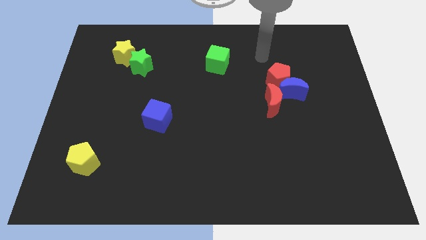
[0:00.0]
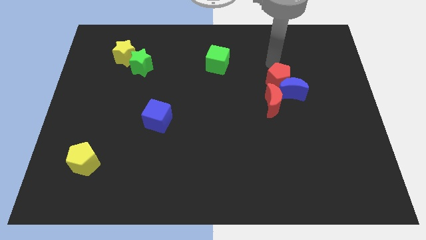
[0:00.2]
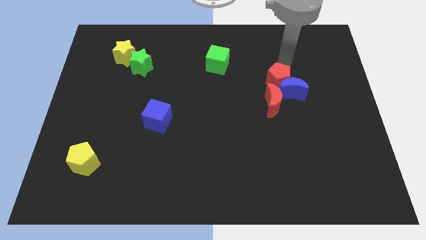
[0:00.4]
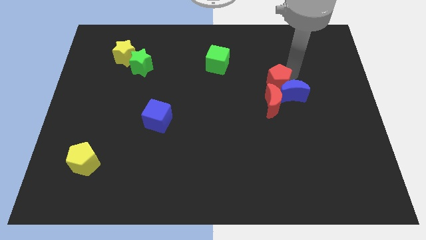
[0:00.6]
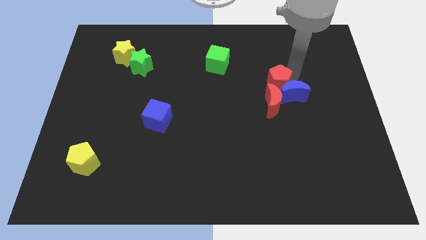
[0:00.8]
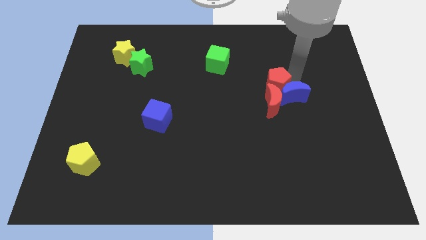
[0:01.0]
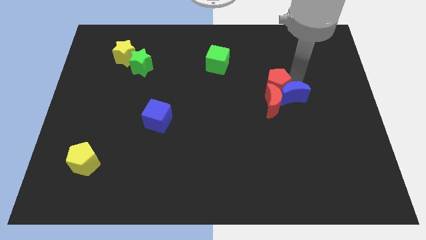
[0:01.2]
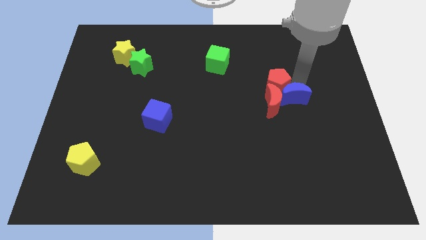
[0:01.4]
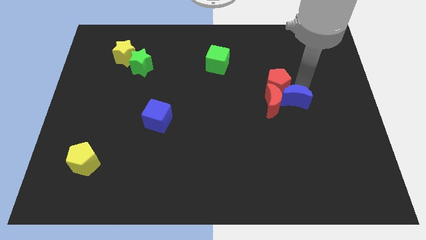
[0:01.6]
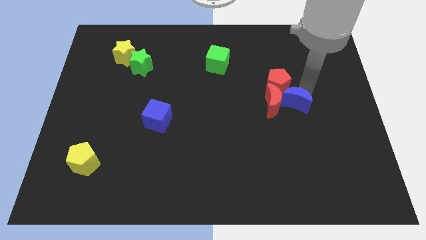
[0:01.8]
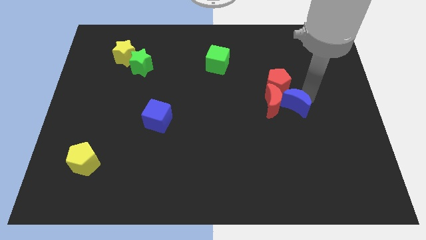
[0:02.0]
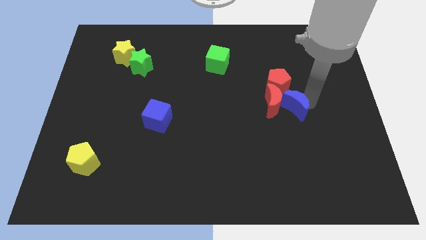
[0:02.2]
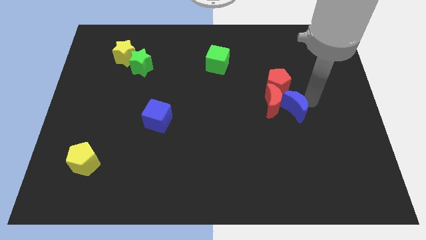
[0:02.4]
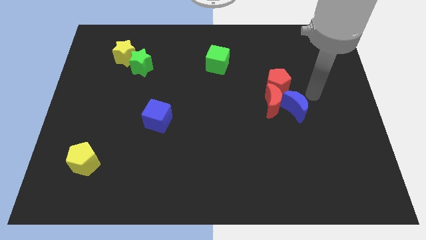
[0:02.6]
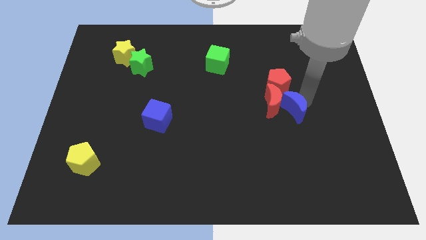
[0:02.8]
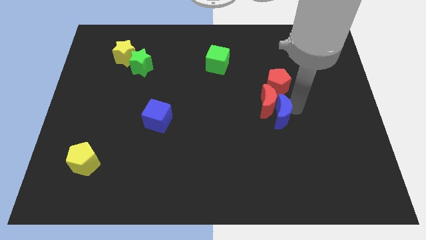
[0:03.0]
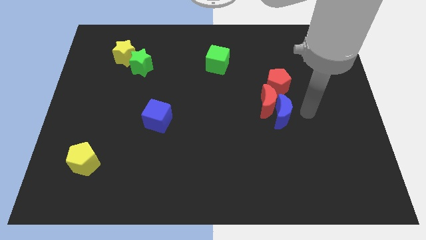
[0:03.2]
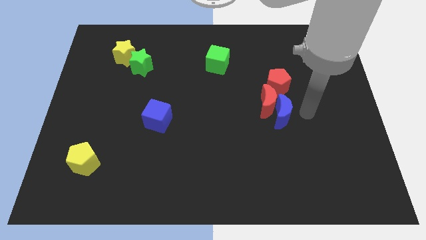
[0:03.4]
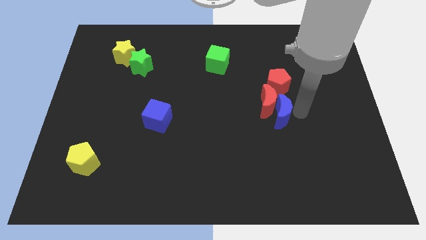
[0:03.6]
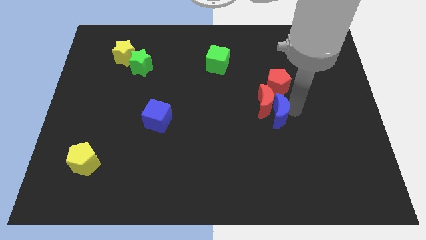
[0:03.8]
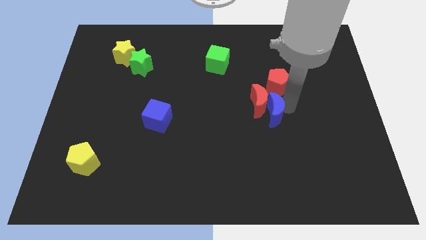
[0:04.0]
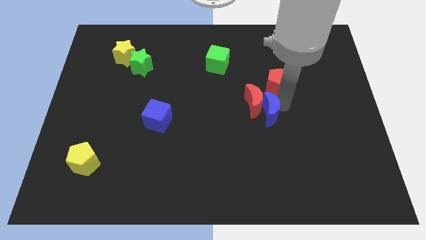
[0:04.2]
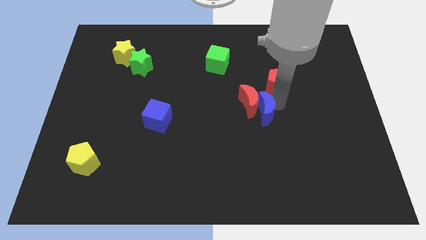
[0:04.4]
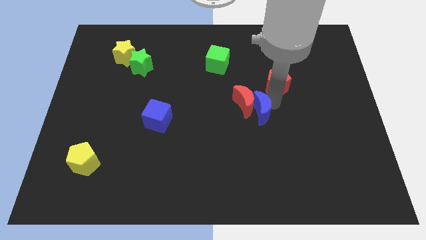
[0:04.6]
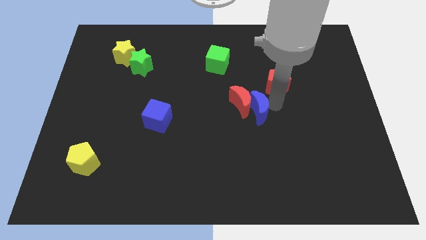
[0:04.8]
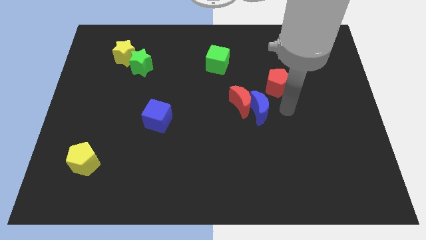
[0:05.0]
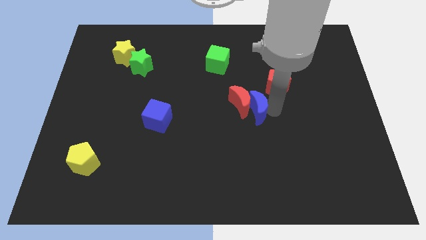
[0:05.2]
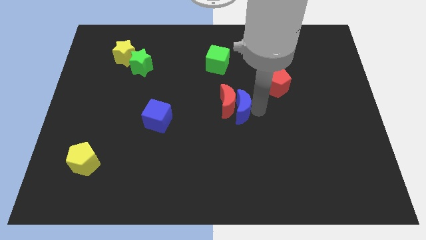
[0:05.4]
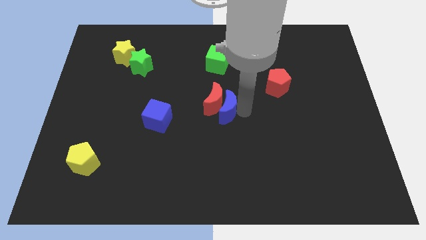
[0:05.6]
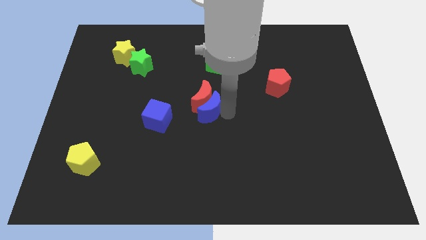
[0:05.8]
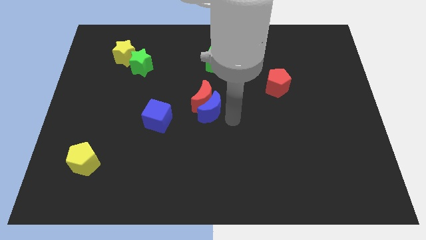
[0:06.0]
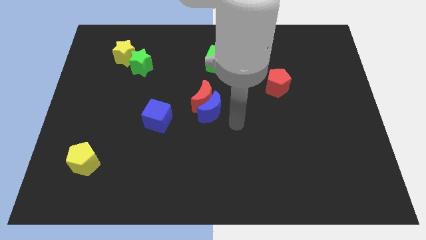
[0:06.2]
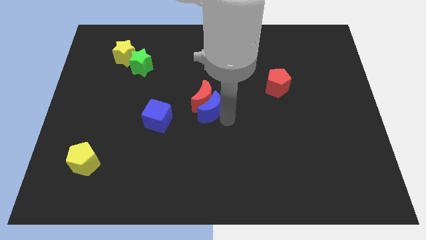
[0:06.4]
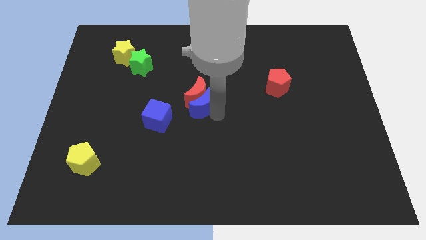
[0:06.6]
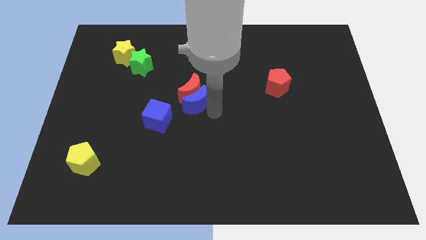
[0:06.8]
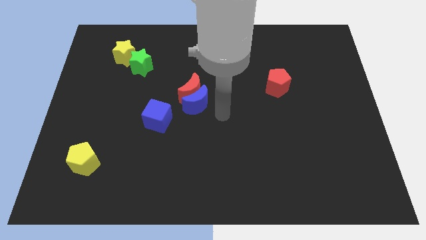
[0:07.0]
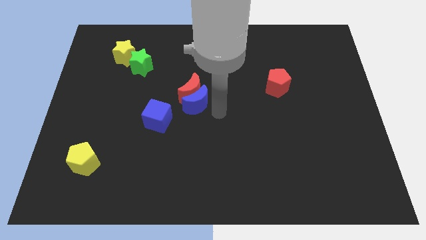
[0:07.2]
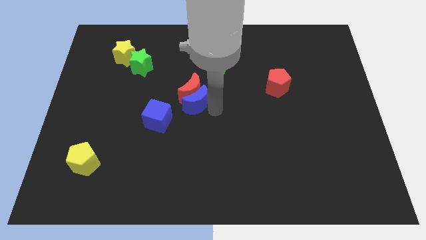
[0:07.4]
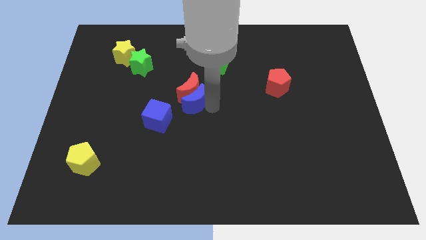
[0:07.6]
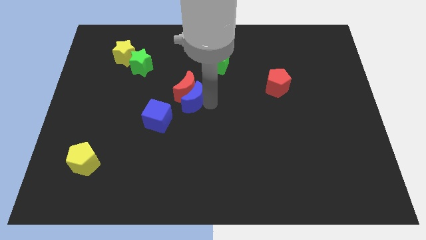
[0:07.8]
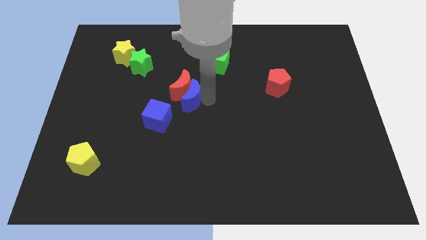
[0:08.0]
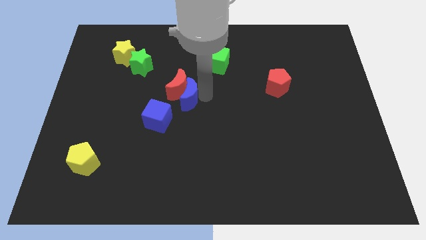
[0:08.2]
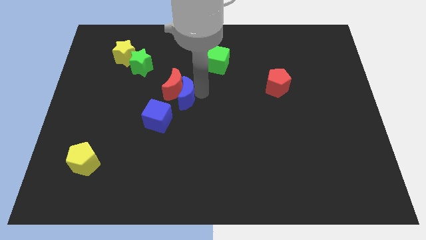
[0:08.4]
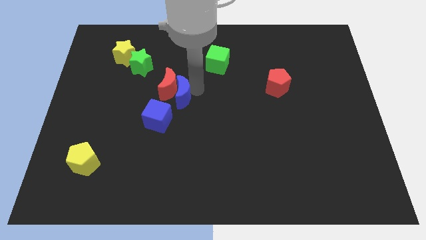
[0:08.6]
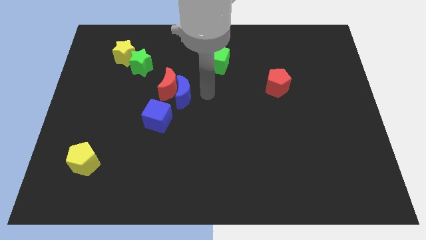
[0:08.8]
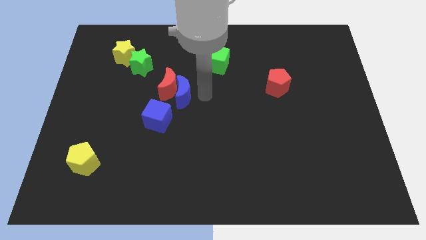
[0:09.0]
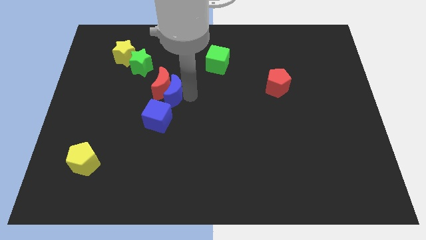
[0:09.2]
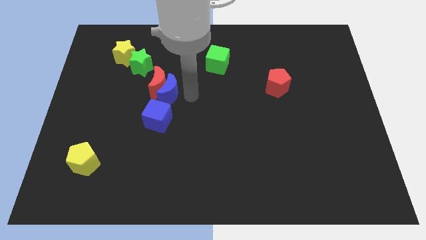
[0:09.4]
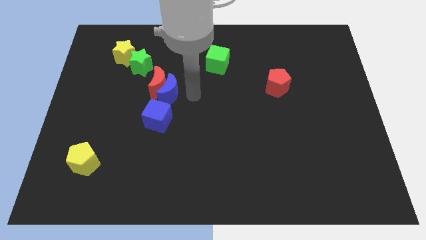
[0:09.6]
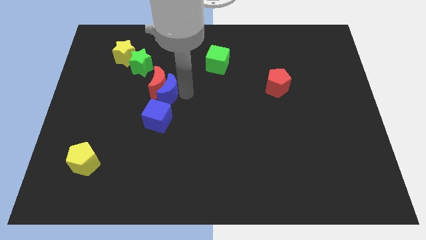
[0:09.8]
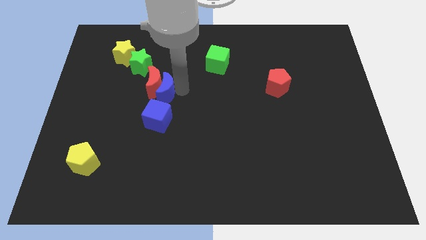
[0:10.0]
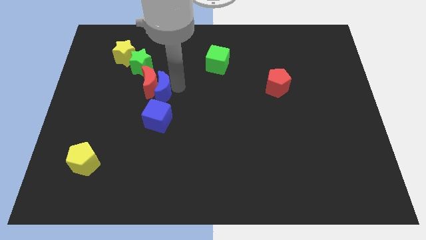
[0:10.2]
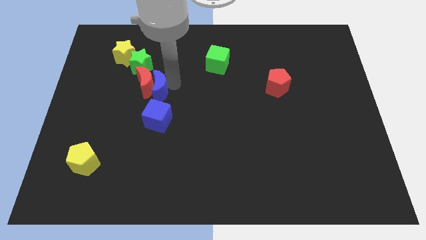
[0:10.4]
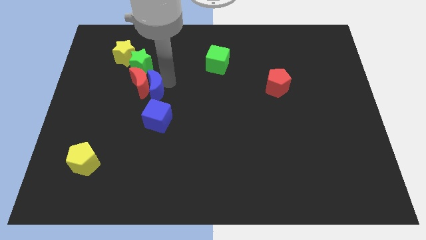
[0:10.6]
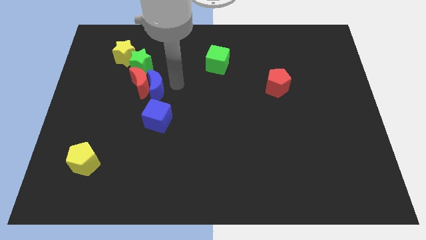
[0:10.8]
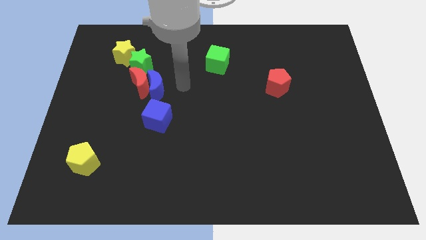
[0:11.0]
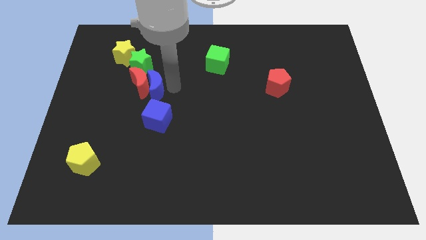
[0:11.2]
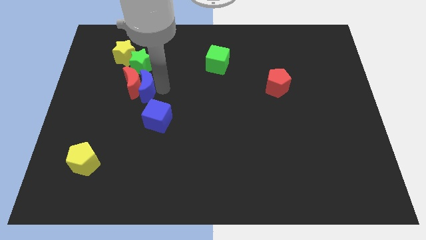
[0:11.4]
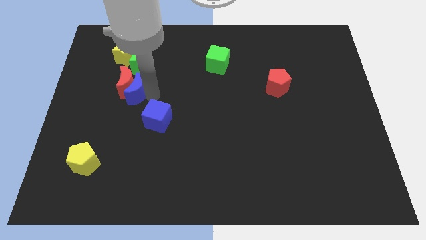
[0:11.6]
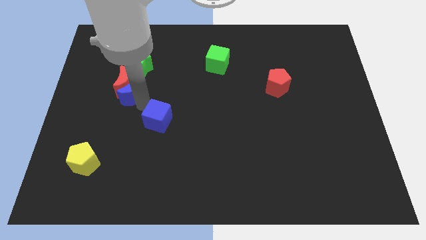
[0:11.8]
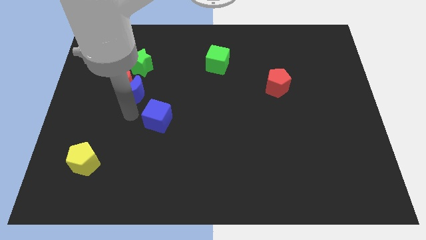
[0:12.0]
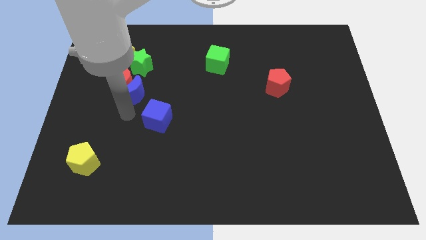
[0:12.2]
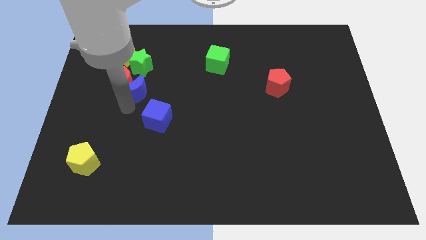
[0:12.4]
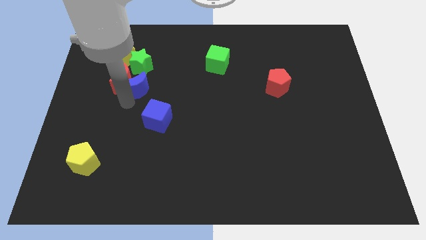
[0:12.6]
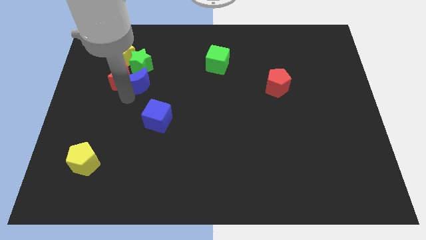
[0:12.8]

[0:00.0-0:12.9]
put the blue moon to the bottom right of the yellow star
